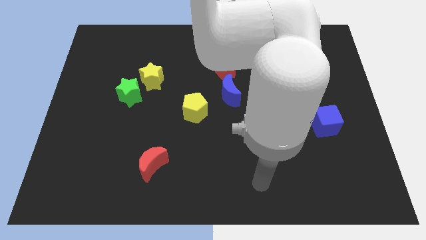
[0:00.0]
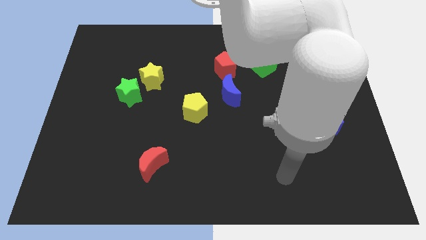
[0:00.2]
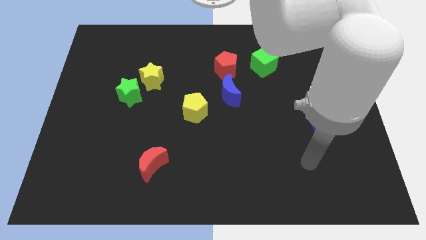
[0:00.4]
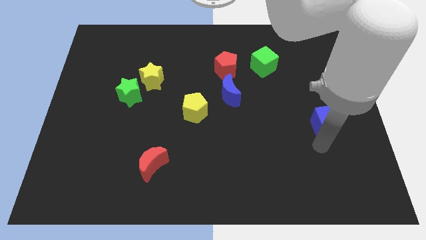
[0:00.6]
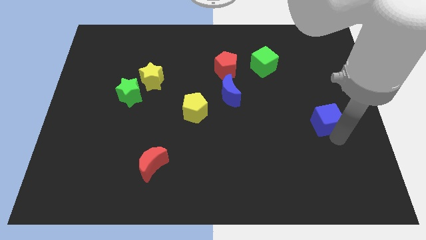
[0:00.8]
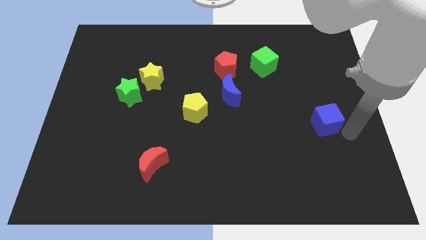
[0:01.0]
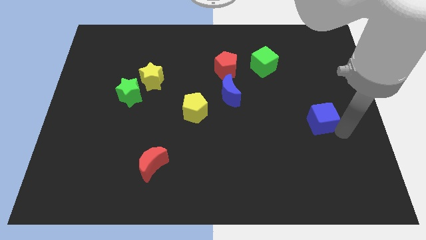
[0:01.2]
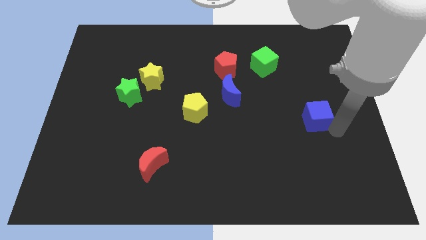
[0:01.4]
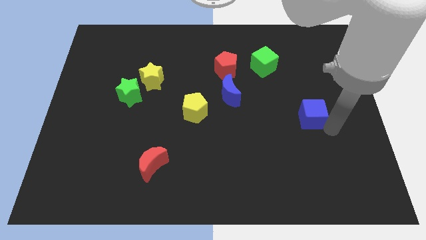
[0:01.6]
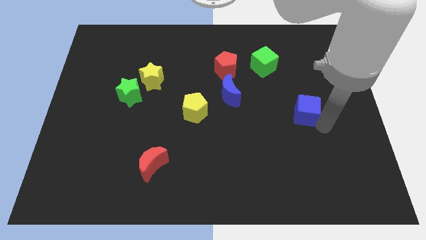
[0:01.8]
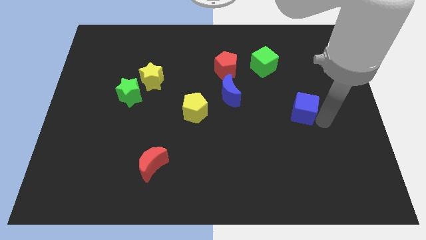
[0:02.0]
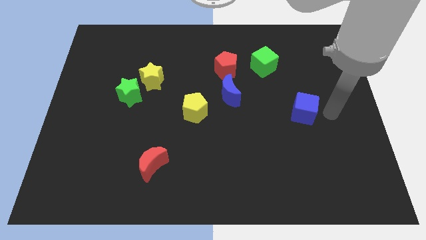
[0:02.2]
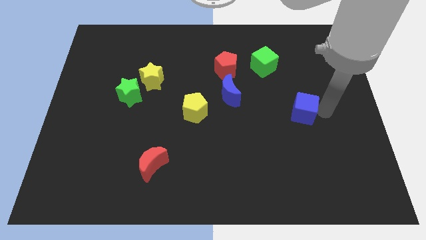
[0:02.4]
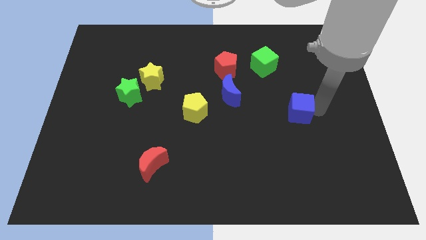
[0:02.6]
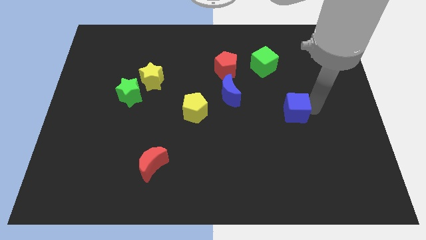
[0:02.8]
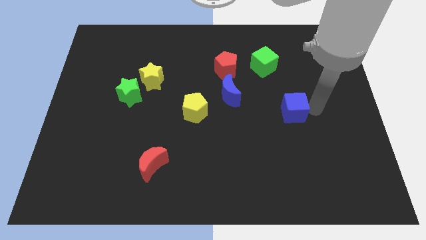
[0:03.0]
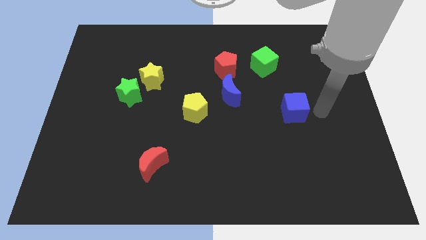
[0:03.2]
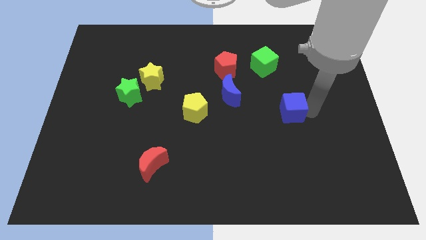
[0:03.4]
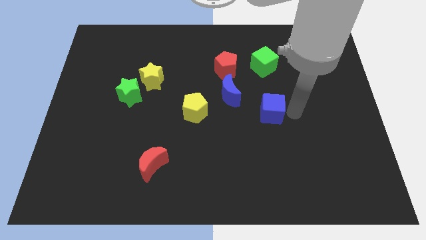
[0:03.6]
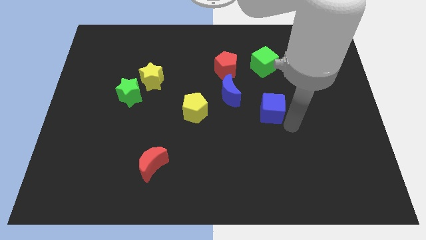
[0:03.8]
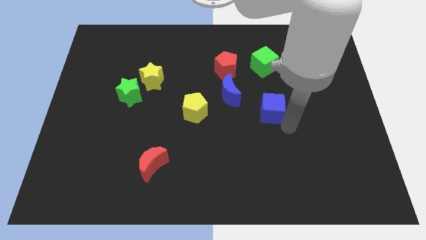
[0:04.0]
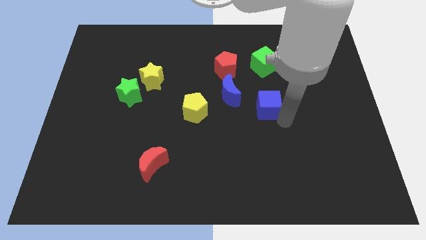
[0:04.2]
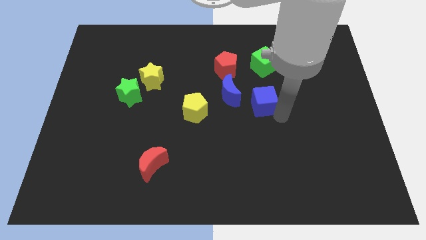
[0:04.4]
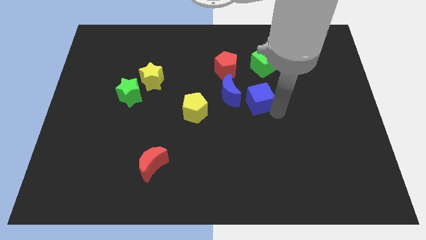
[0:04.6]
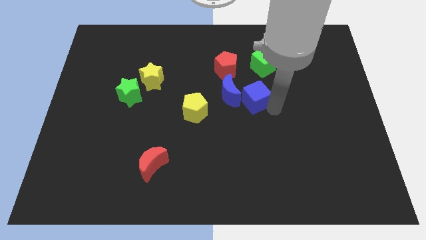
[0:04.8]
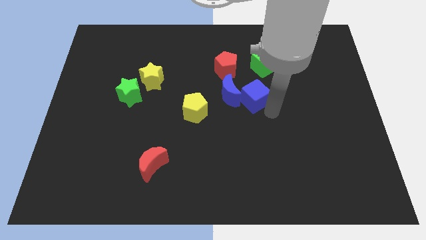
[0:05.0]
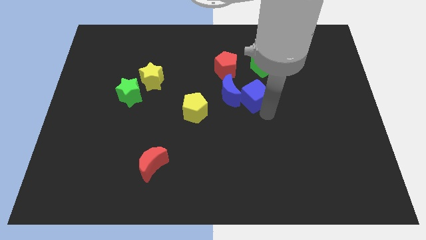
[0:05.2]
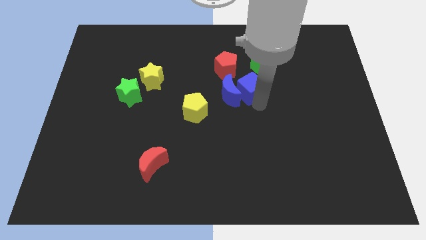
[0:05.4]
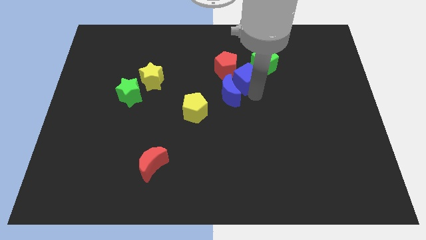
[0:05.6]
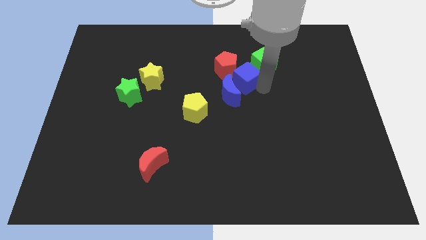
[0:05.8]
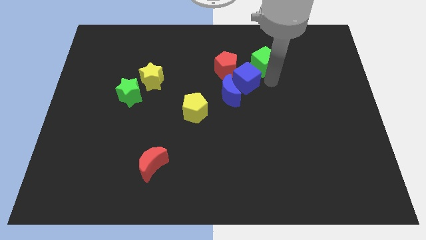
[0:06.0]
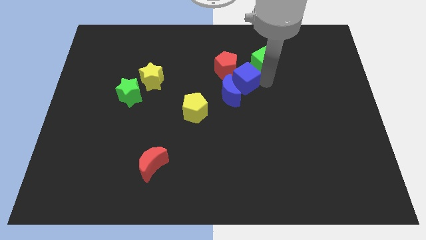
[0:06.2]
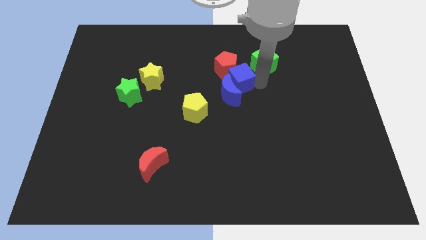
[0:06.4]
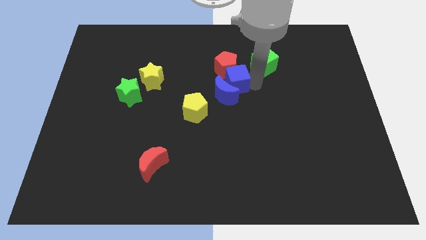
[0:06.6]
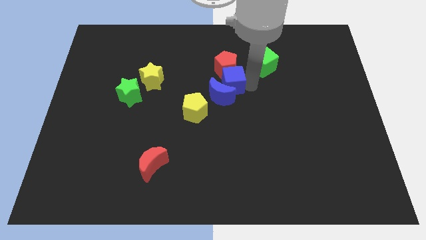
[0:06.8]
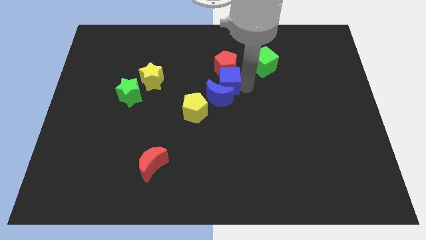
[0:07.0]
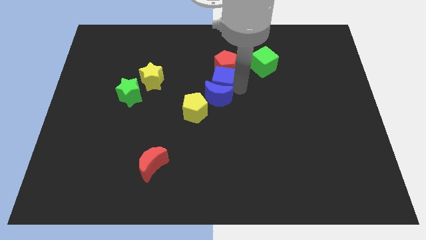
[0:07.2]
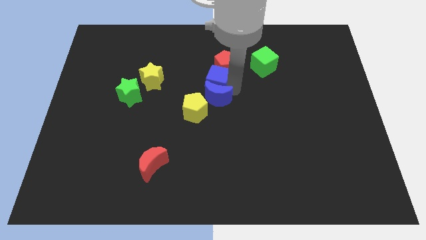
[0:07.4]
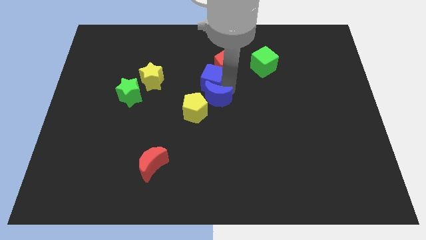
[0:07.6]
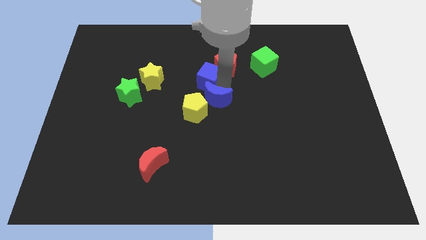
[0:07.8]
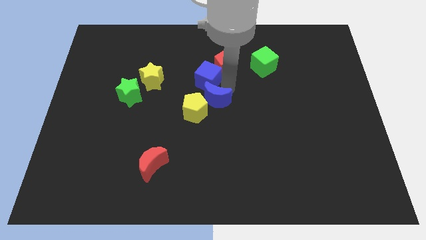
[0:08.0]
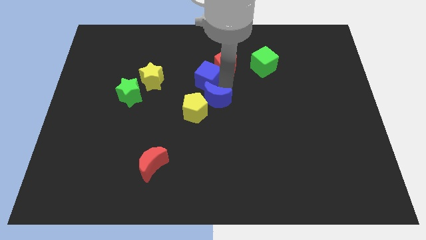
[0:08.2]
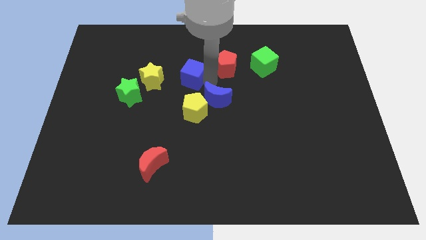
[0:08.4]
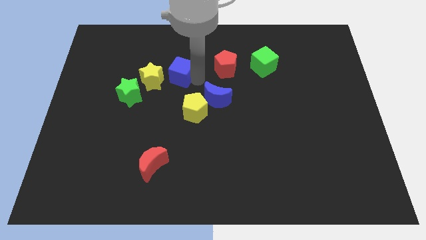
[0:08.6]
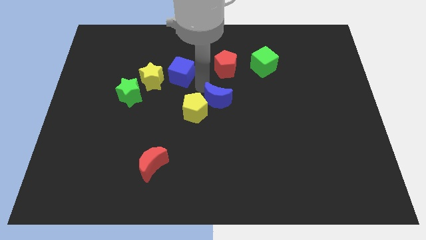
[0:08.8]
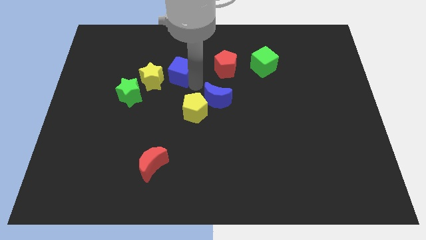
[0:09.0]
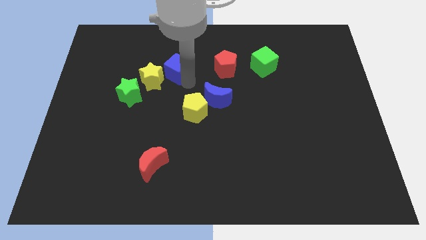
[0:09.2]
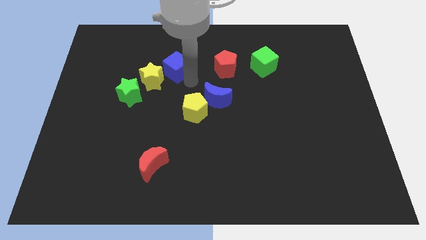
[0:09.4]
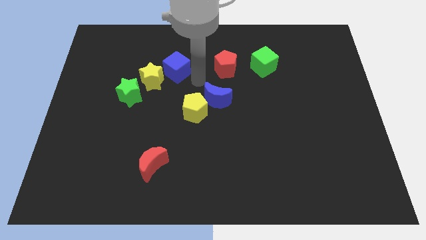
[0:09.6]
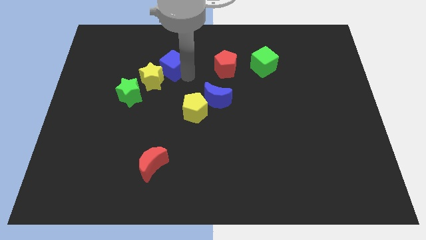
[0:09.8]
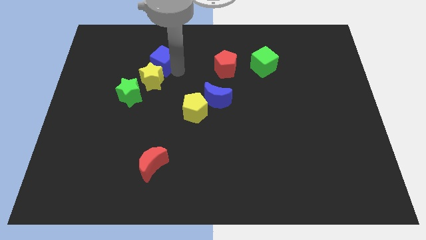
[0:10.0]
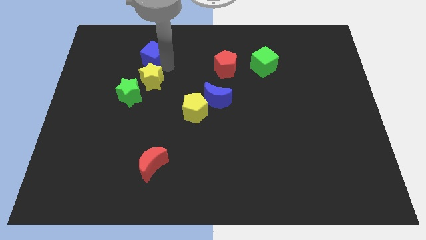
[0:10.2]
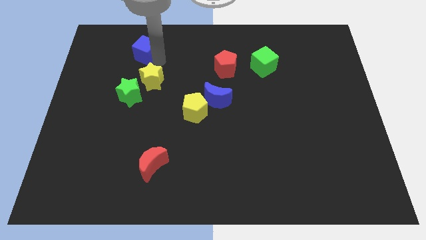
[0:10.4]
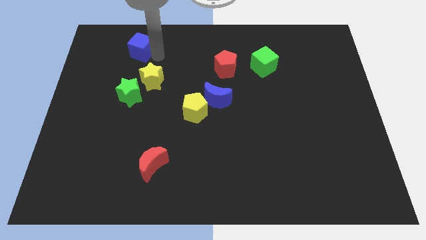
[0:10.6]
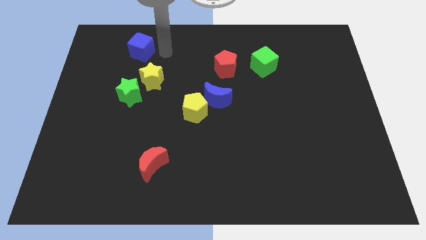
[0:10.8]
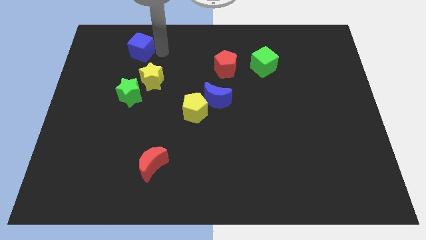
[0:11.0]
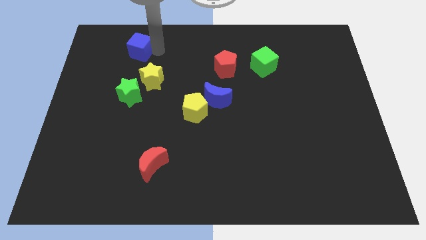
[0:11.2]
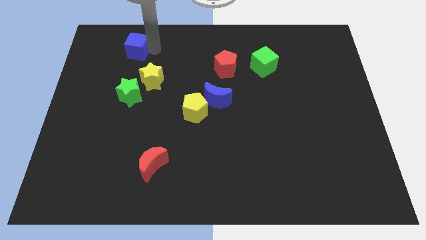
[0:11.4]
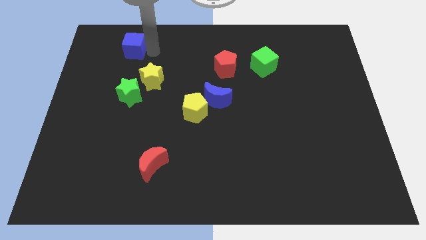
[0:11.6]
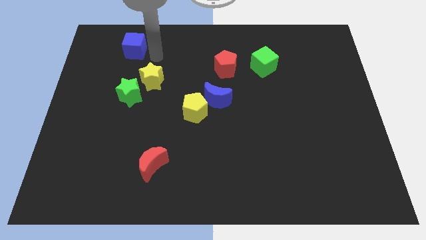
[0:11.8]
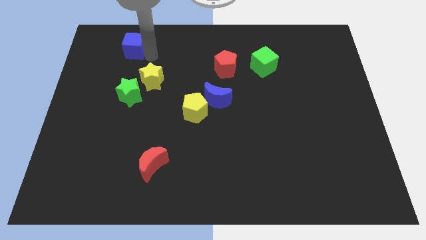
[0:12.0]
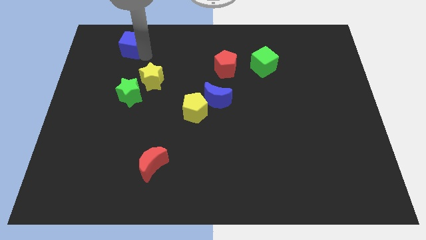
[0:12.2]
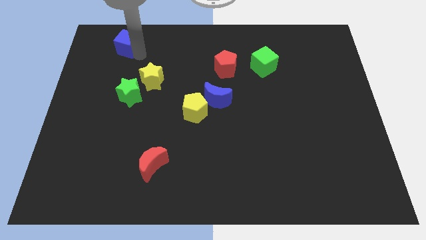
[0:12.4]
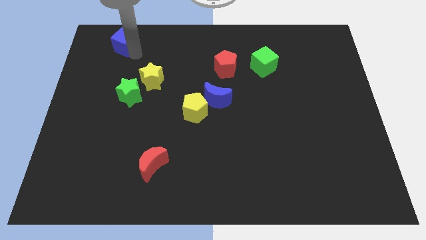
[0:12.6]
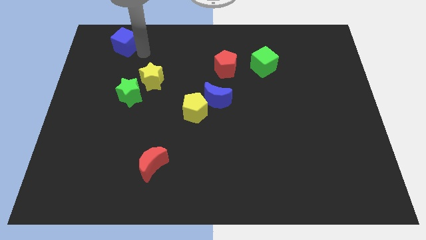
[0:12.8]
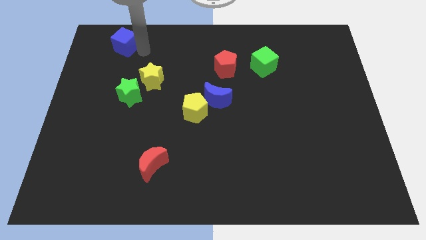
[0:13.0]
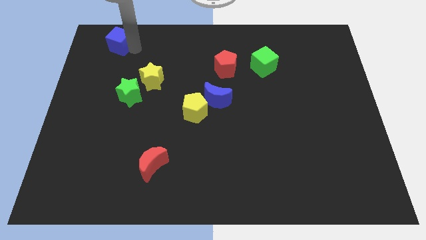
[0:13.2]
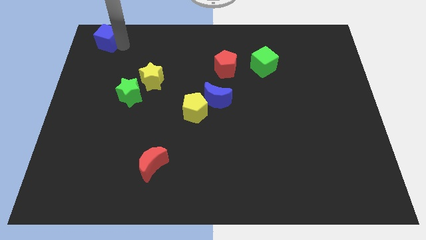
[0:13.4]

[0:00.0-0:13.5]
move the blue cube to the upper left corner
